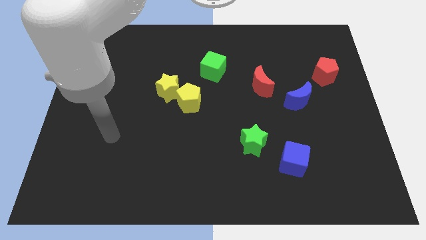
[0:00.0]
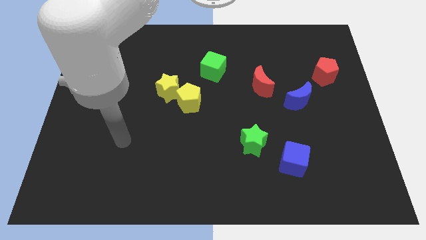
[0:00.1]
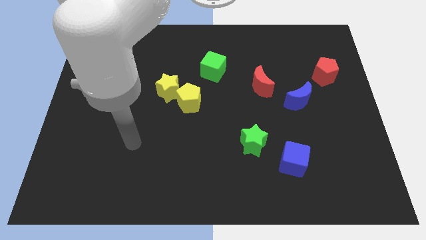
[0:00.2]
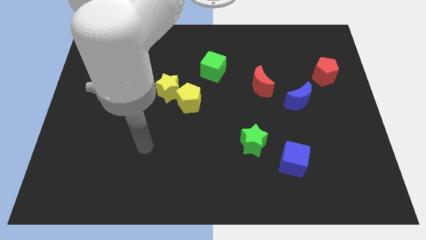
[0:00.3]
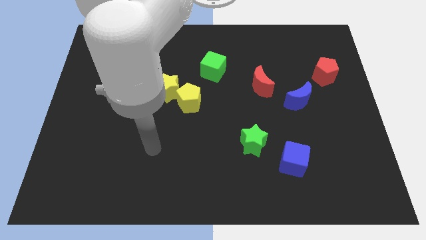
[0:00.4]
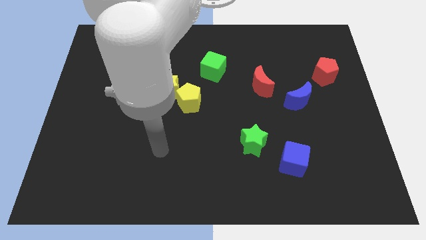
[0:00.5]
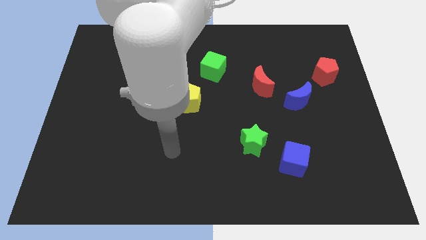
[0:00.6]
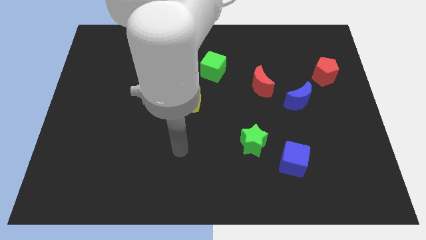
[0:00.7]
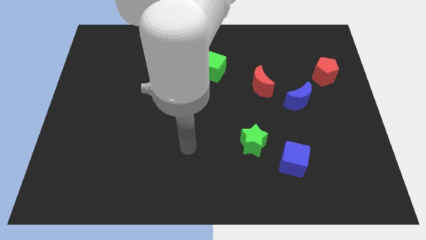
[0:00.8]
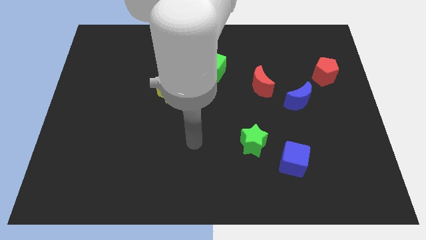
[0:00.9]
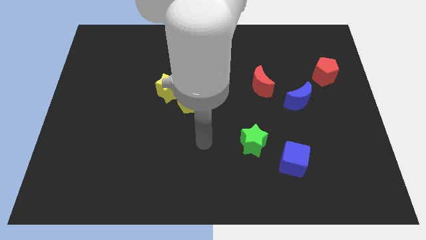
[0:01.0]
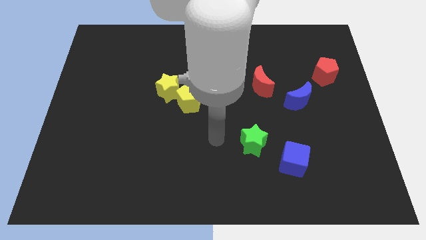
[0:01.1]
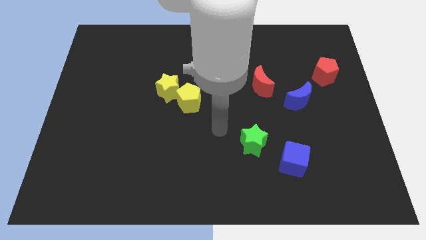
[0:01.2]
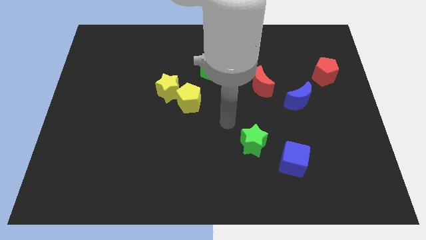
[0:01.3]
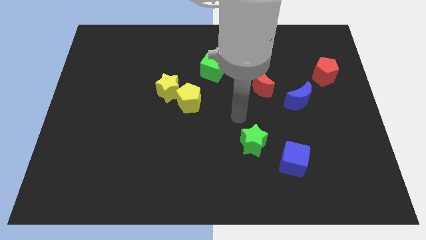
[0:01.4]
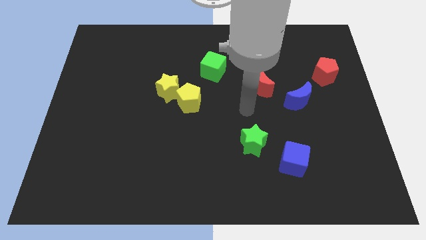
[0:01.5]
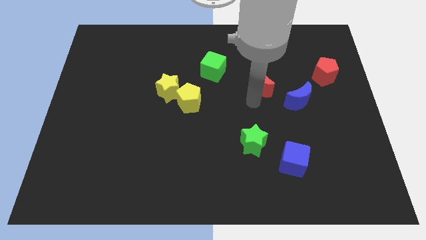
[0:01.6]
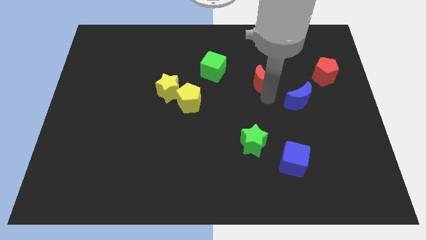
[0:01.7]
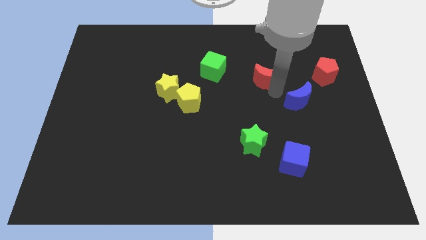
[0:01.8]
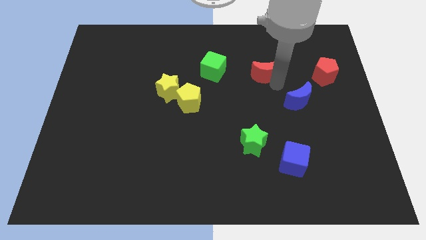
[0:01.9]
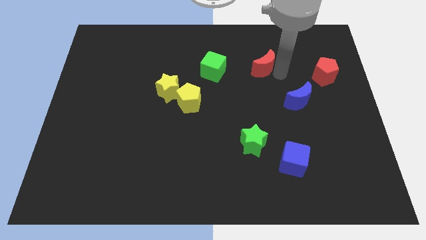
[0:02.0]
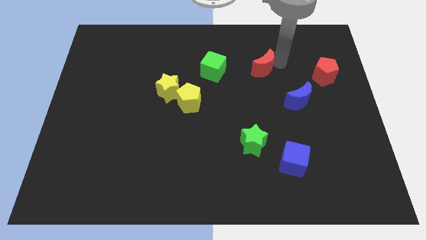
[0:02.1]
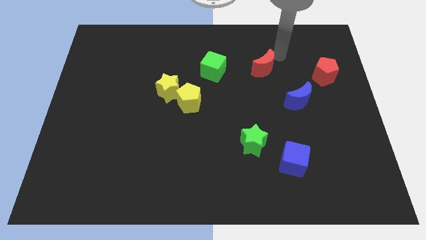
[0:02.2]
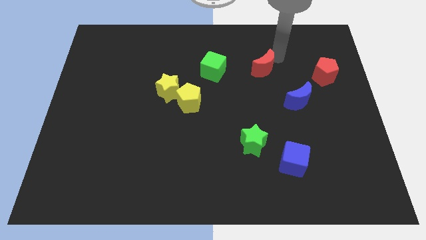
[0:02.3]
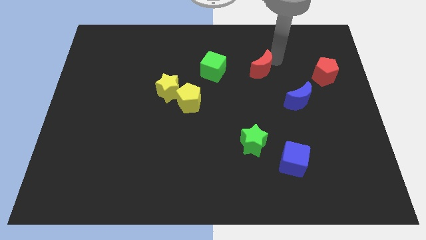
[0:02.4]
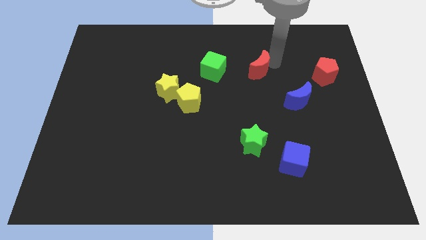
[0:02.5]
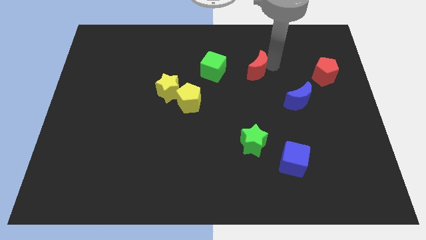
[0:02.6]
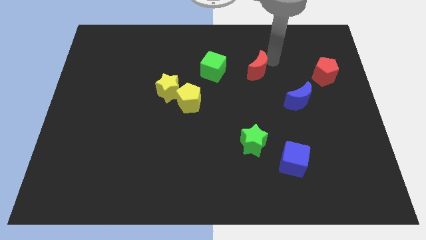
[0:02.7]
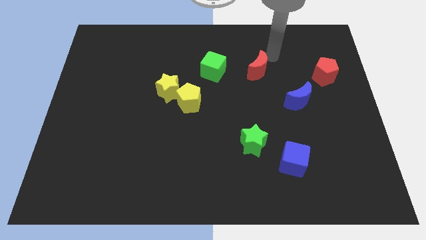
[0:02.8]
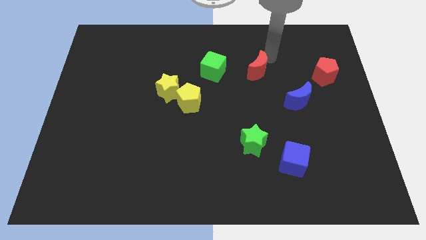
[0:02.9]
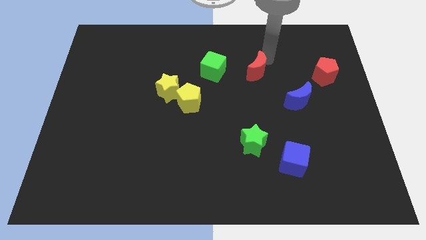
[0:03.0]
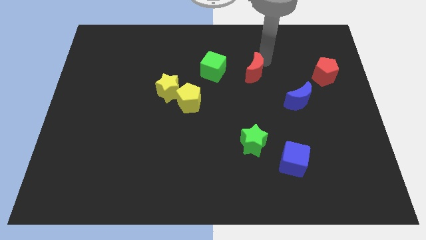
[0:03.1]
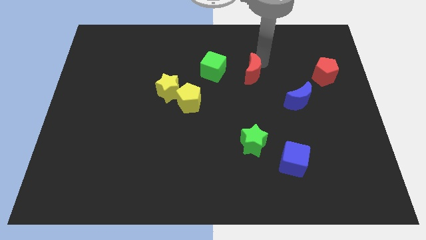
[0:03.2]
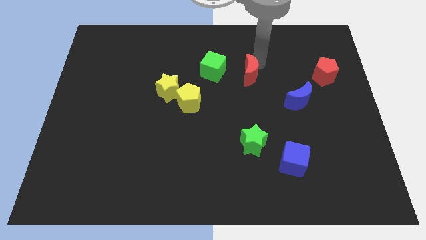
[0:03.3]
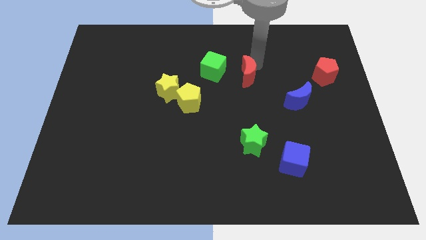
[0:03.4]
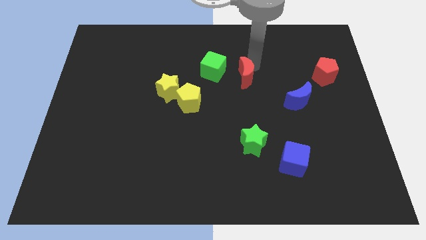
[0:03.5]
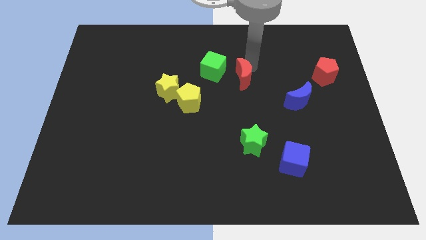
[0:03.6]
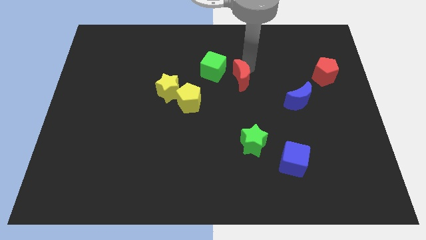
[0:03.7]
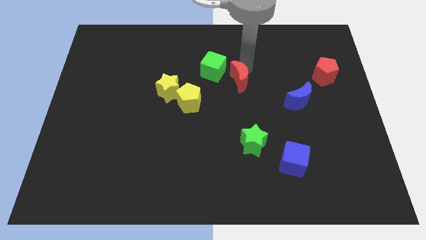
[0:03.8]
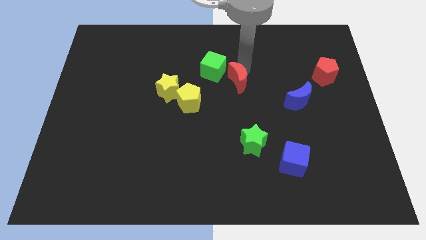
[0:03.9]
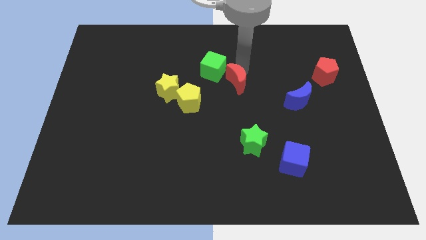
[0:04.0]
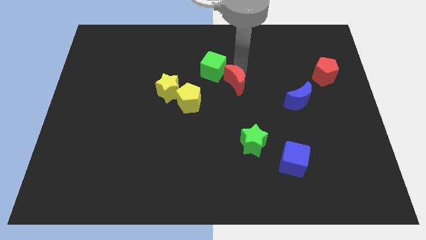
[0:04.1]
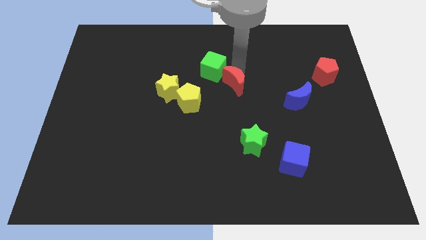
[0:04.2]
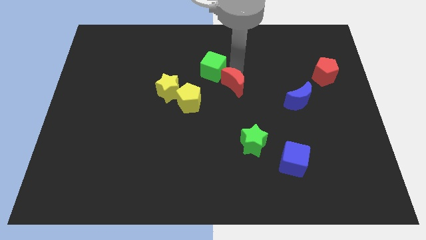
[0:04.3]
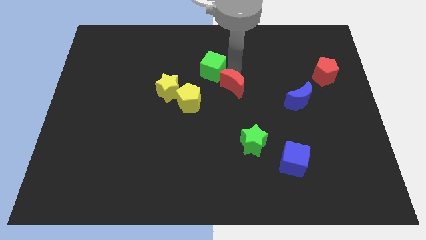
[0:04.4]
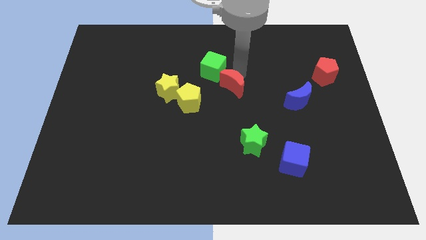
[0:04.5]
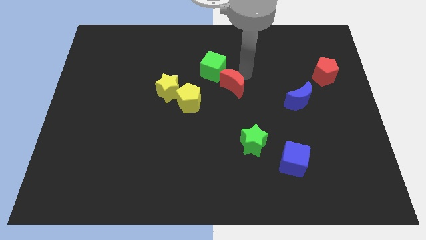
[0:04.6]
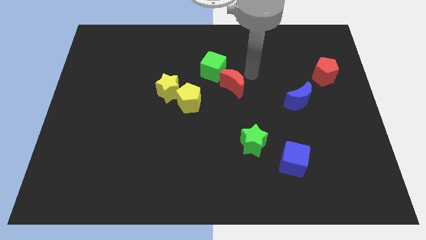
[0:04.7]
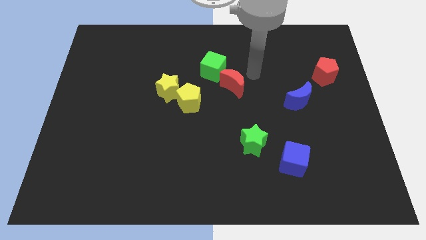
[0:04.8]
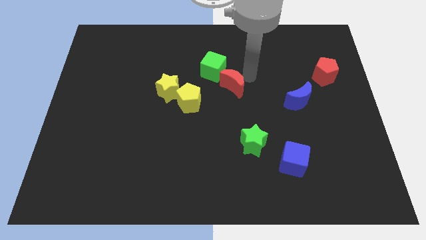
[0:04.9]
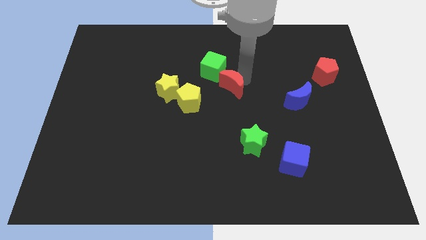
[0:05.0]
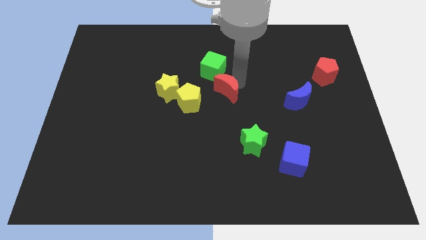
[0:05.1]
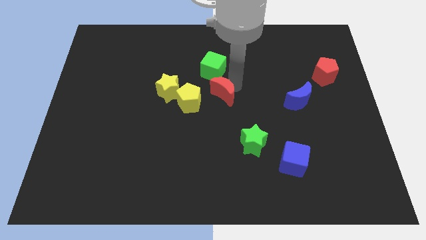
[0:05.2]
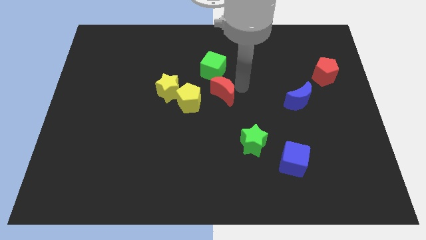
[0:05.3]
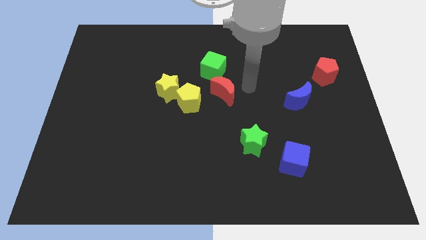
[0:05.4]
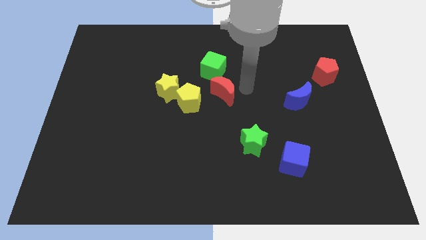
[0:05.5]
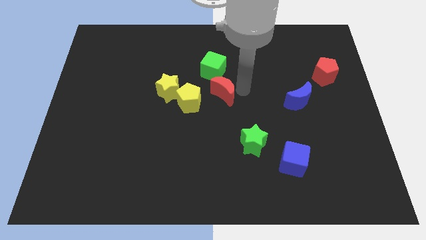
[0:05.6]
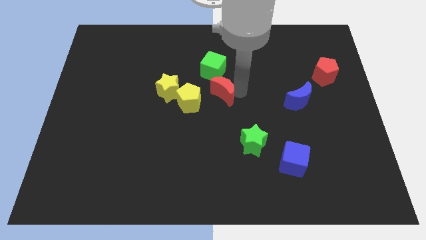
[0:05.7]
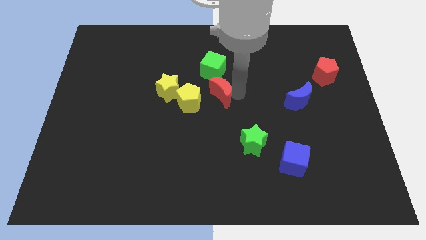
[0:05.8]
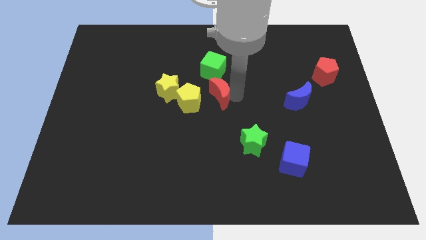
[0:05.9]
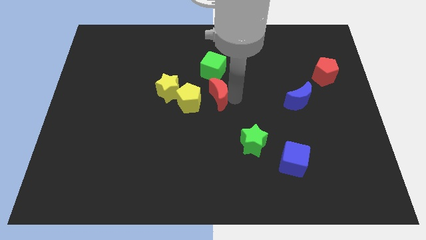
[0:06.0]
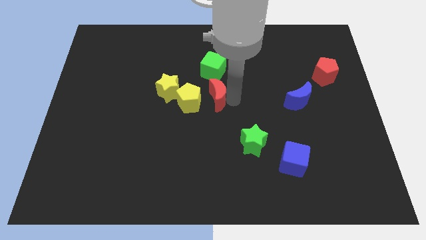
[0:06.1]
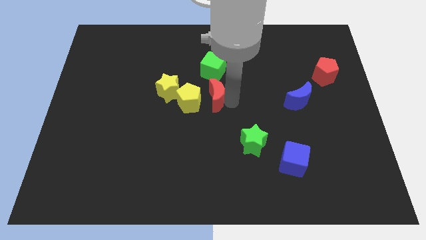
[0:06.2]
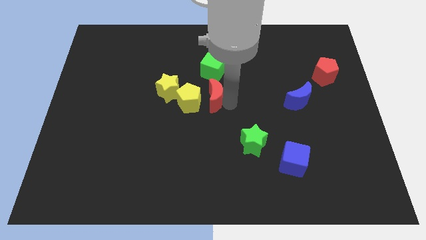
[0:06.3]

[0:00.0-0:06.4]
move the red moon to the yellow pentagon

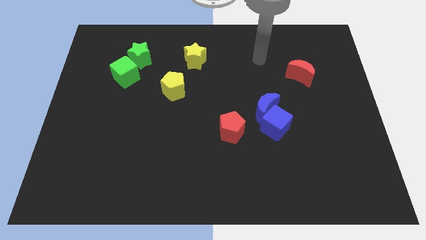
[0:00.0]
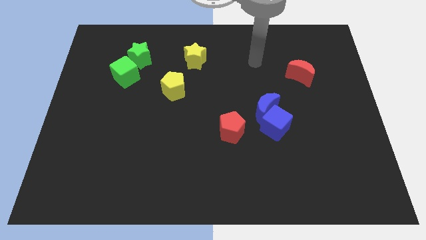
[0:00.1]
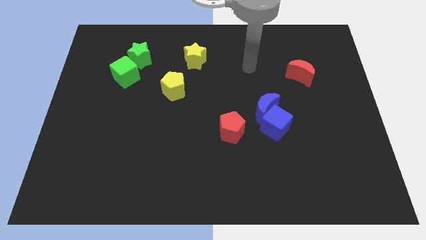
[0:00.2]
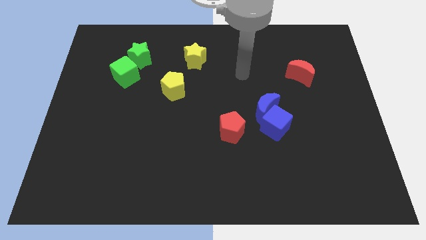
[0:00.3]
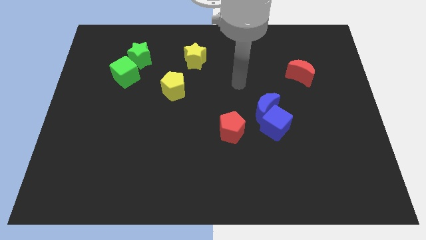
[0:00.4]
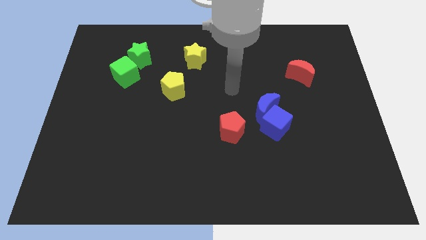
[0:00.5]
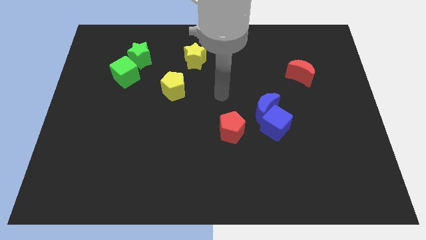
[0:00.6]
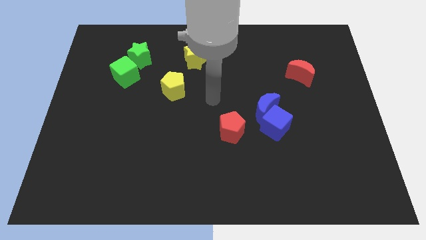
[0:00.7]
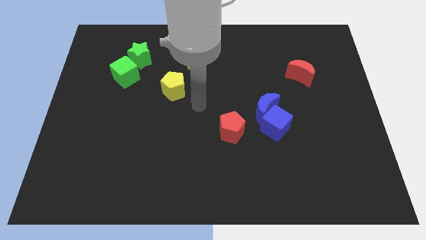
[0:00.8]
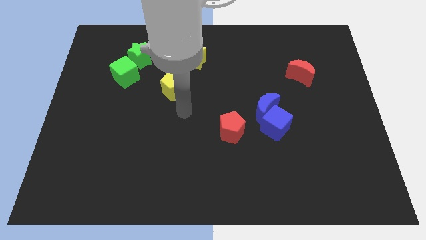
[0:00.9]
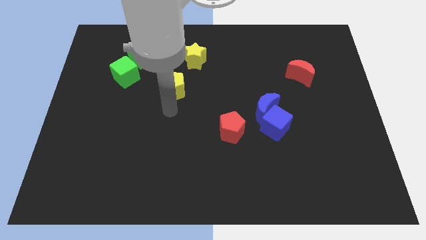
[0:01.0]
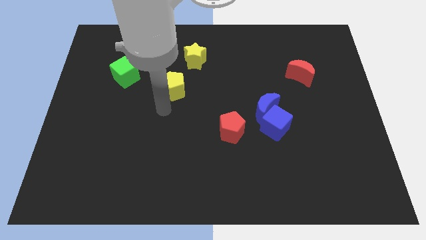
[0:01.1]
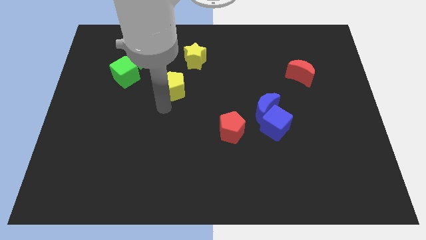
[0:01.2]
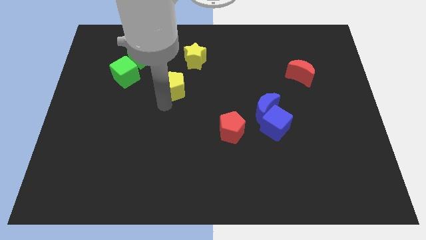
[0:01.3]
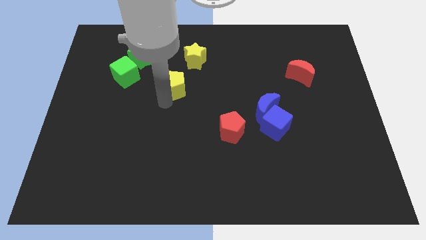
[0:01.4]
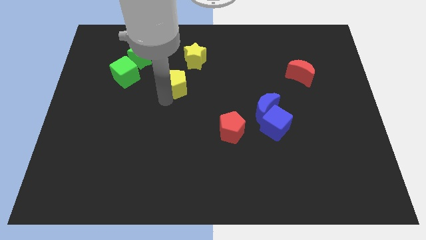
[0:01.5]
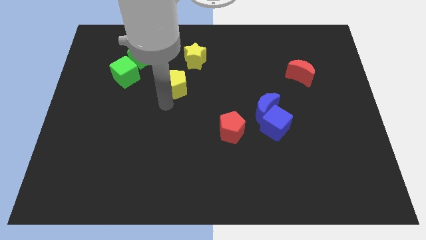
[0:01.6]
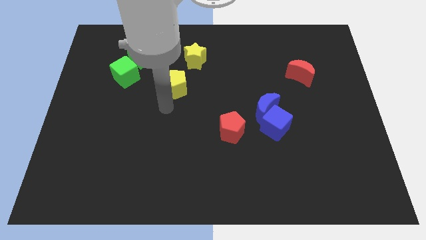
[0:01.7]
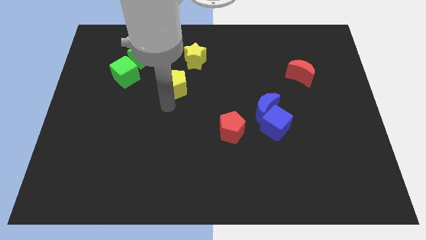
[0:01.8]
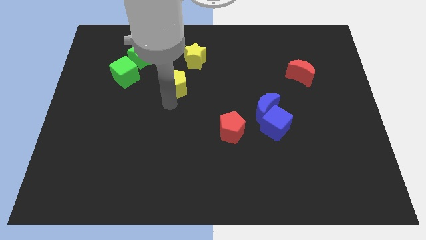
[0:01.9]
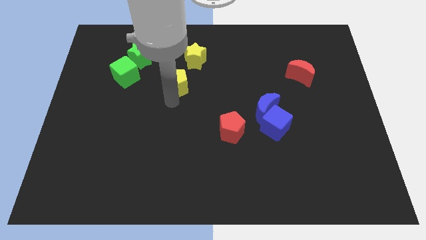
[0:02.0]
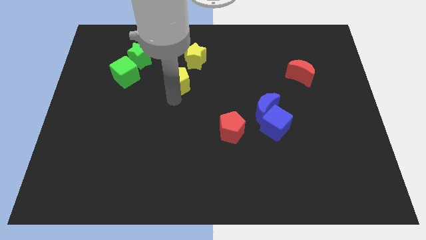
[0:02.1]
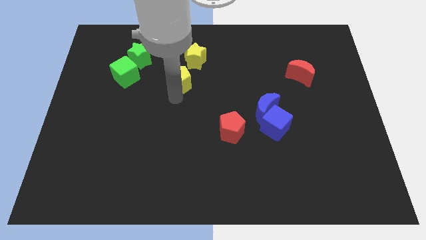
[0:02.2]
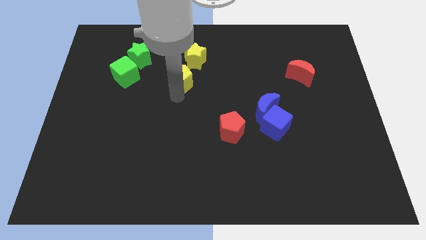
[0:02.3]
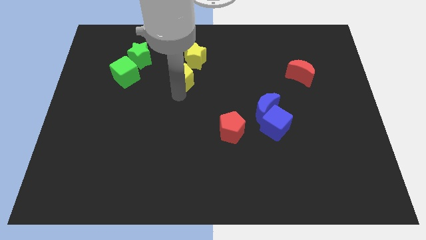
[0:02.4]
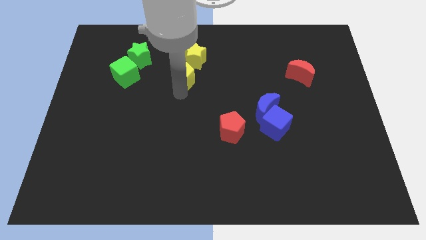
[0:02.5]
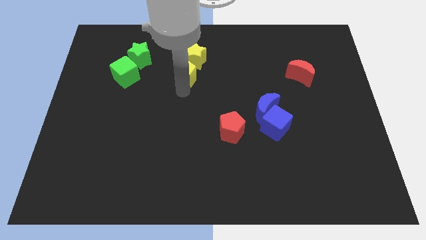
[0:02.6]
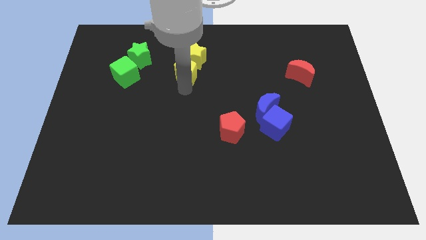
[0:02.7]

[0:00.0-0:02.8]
slide the yellow pentagon close to the yellow star
